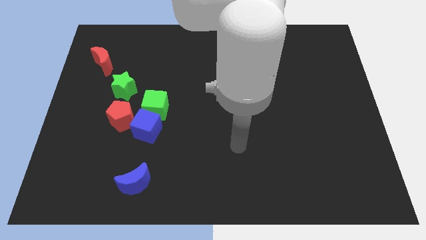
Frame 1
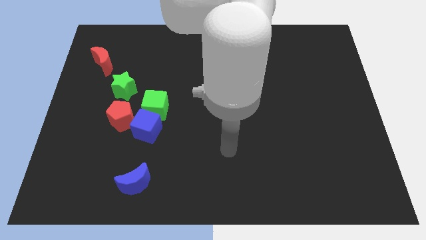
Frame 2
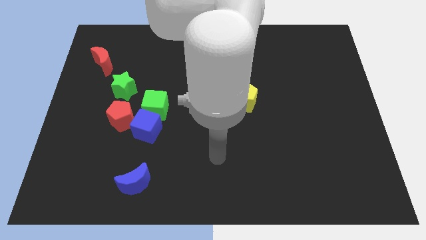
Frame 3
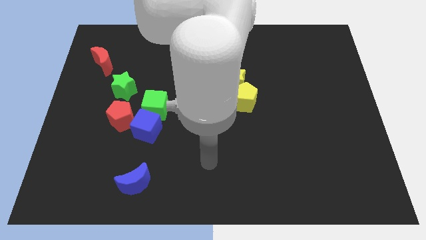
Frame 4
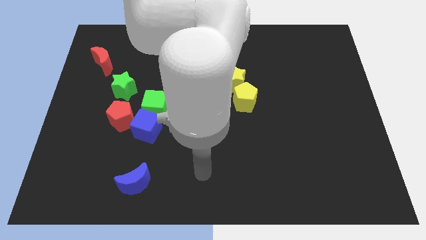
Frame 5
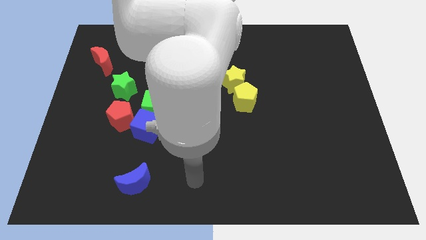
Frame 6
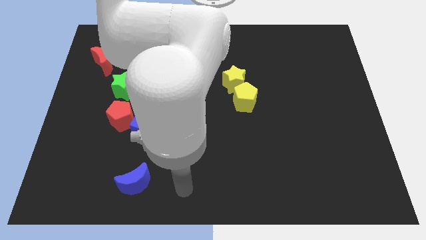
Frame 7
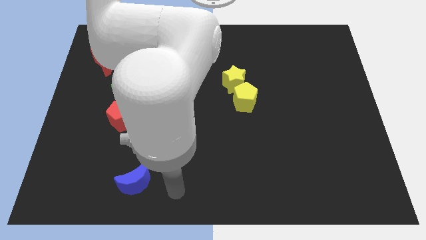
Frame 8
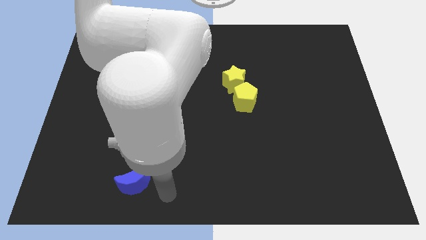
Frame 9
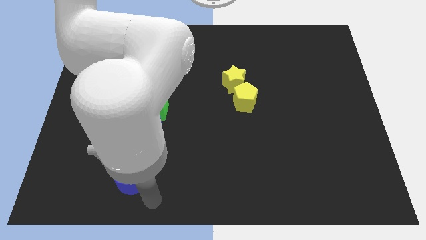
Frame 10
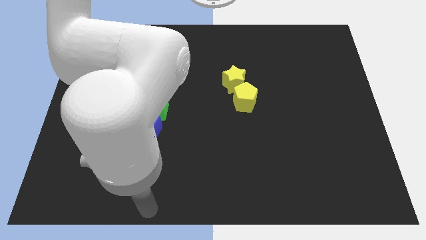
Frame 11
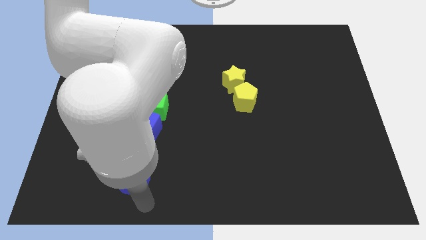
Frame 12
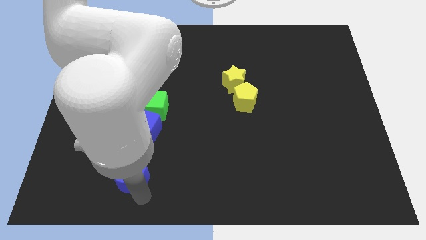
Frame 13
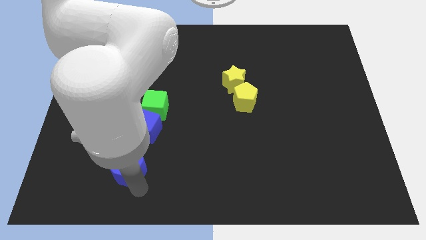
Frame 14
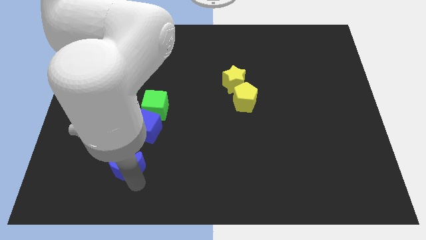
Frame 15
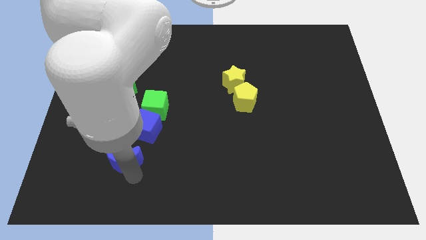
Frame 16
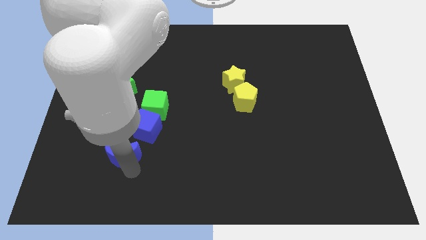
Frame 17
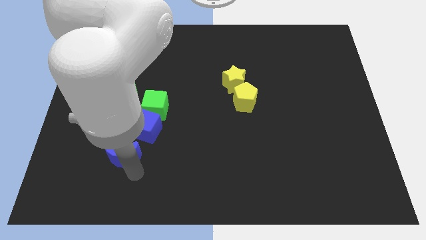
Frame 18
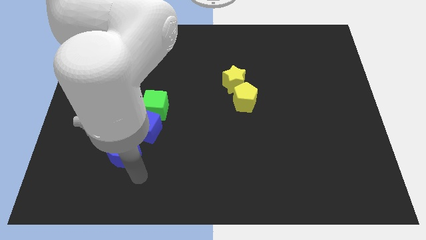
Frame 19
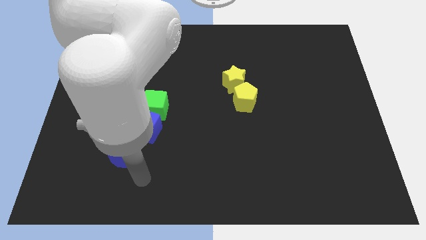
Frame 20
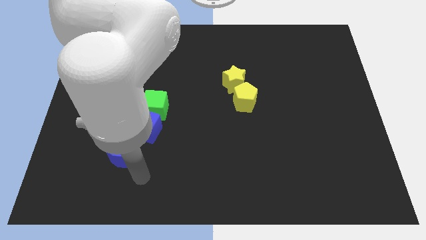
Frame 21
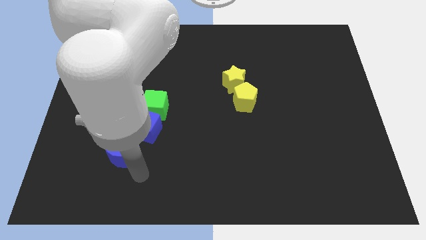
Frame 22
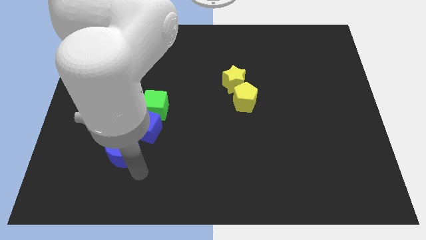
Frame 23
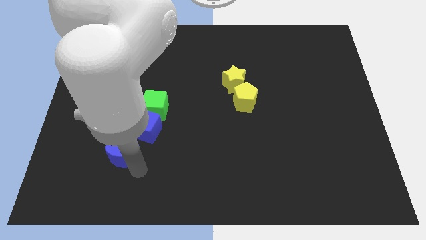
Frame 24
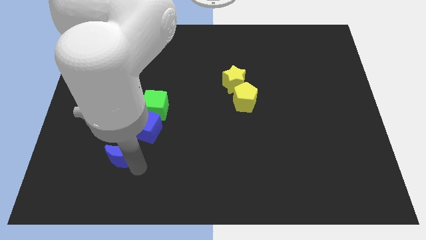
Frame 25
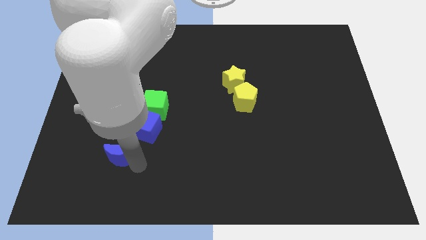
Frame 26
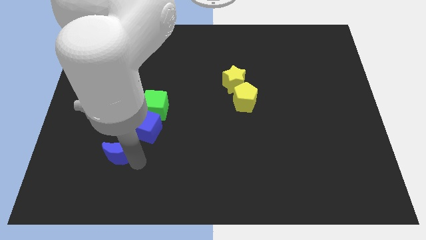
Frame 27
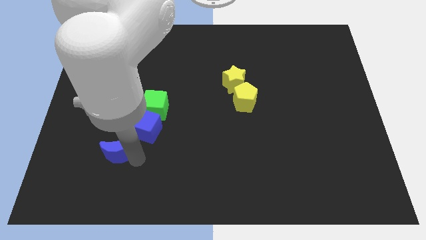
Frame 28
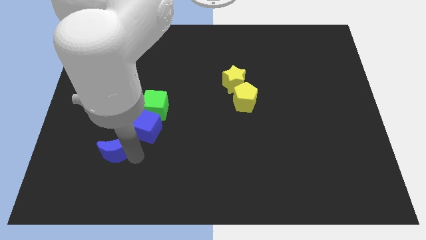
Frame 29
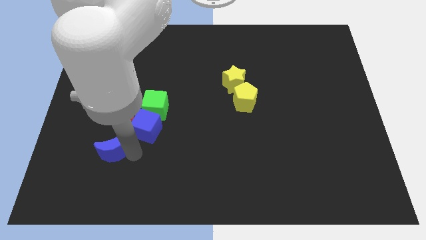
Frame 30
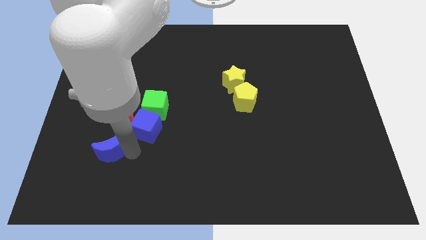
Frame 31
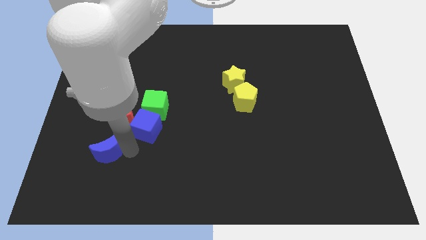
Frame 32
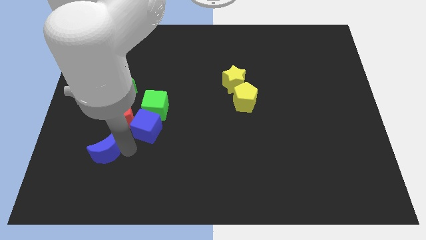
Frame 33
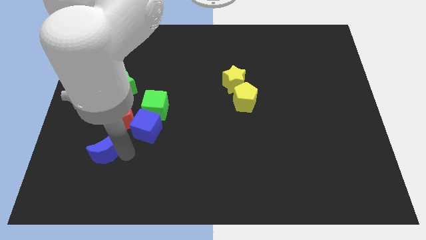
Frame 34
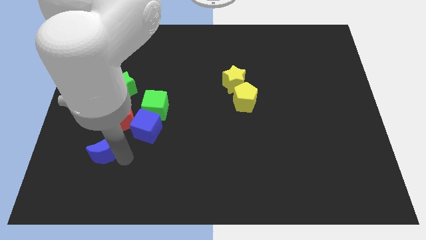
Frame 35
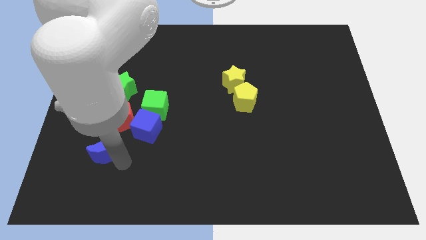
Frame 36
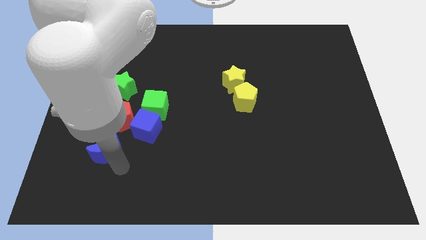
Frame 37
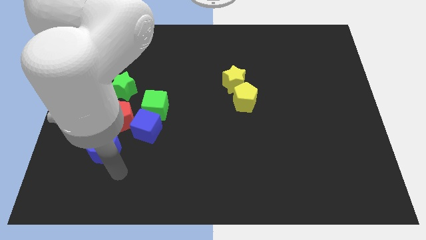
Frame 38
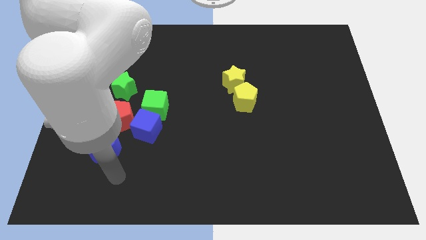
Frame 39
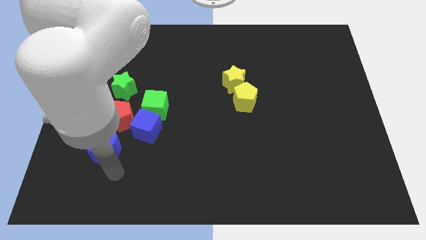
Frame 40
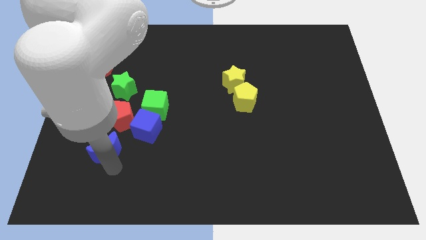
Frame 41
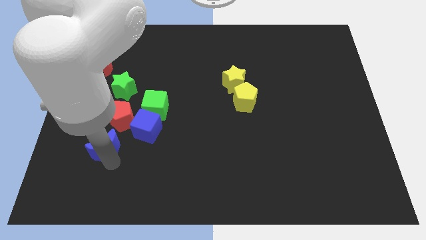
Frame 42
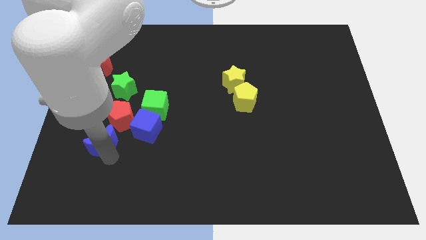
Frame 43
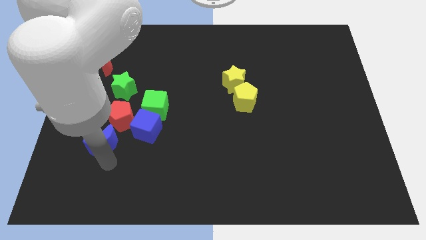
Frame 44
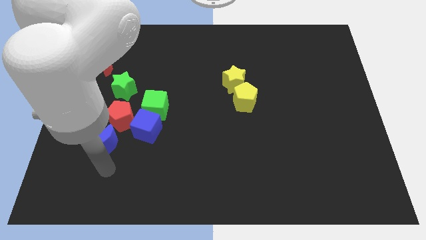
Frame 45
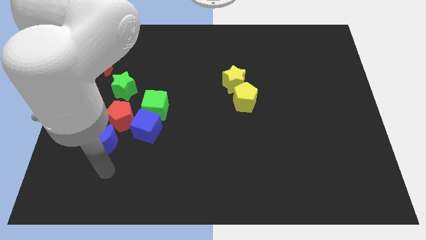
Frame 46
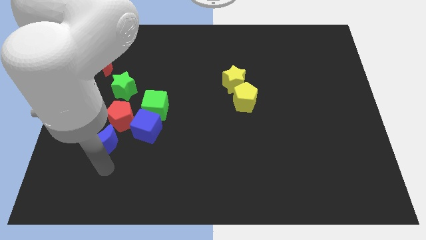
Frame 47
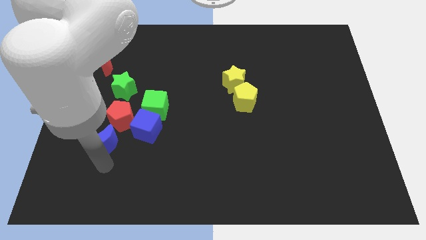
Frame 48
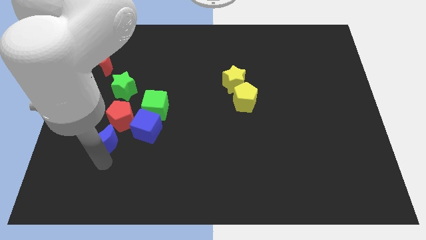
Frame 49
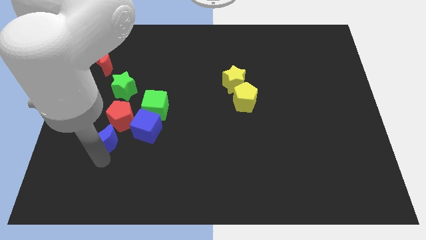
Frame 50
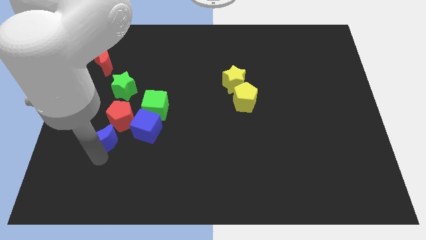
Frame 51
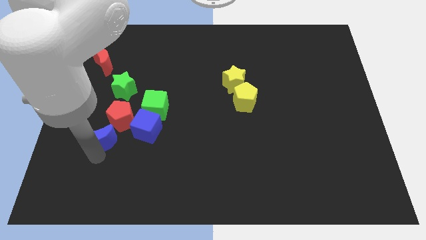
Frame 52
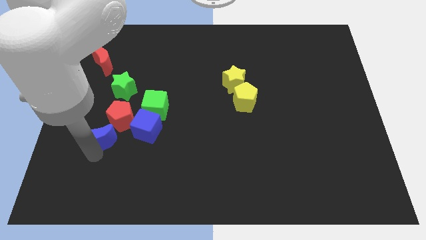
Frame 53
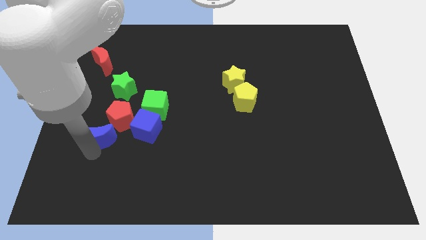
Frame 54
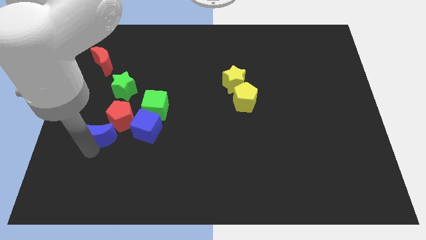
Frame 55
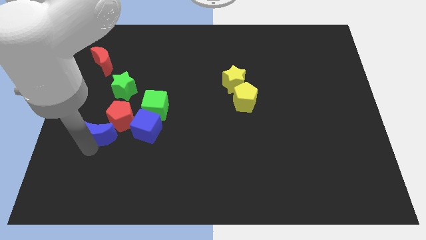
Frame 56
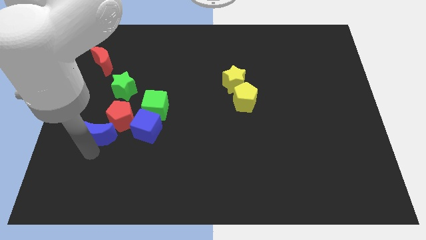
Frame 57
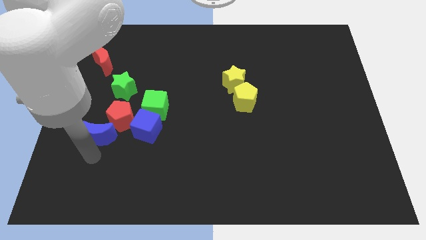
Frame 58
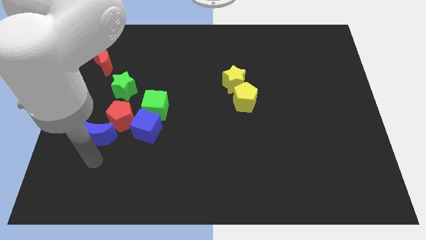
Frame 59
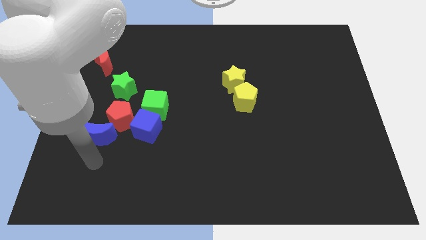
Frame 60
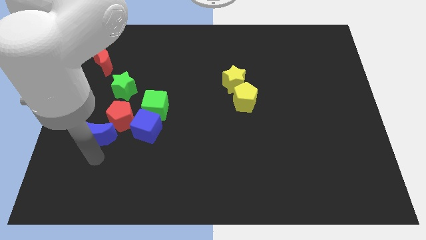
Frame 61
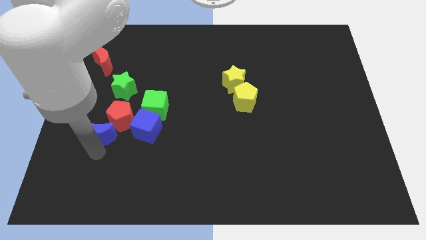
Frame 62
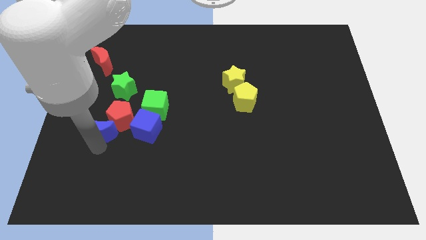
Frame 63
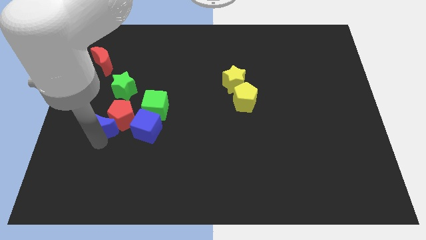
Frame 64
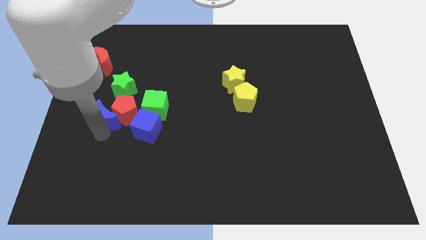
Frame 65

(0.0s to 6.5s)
slide the blue moon to the top left of the red pentagon

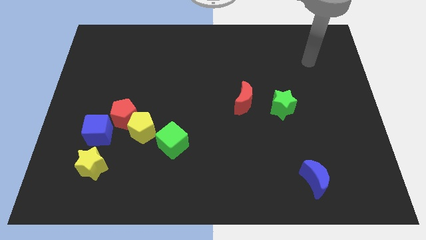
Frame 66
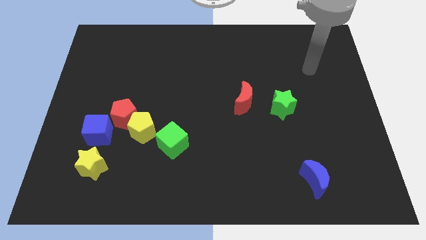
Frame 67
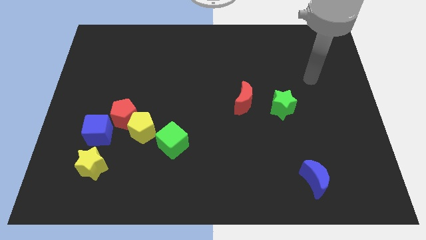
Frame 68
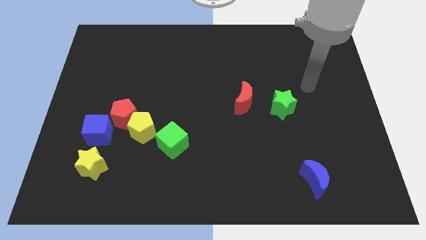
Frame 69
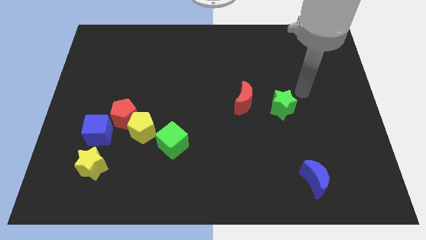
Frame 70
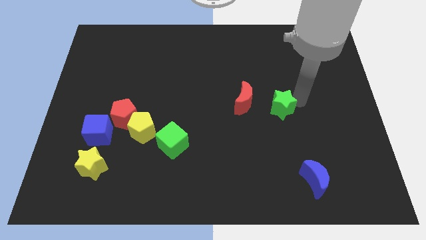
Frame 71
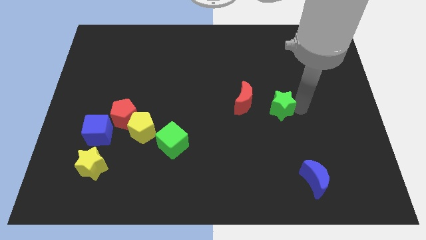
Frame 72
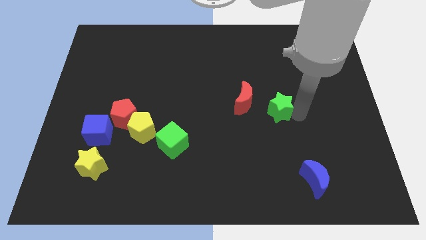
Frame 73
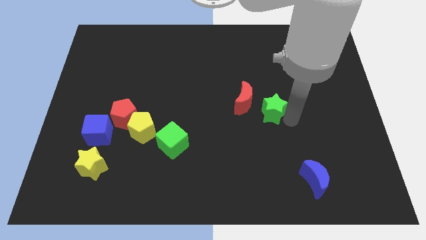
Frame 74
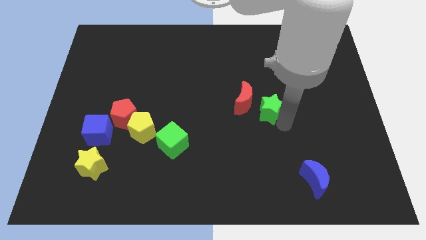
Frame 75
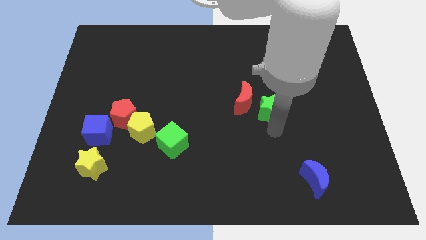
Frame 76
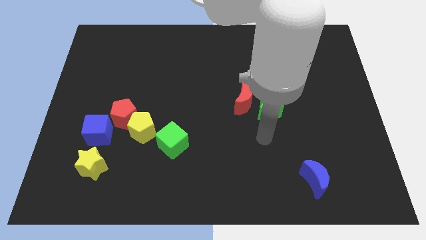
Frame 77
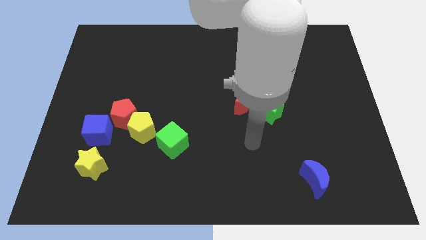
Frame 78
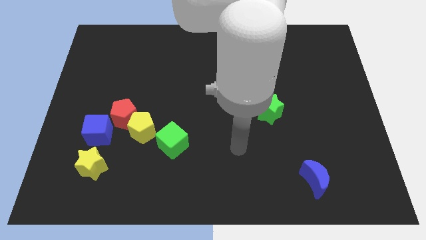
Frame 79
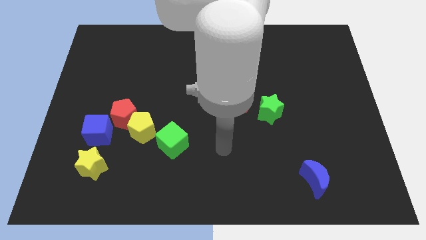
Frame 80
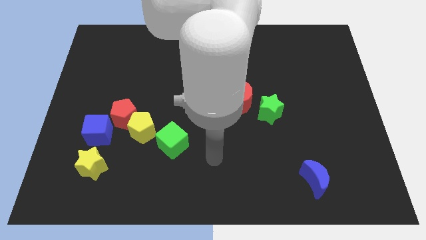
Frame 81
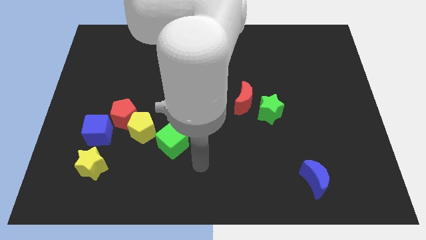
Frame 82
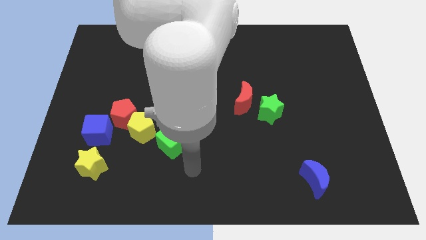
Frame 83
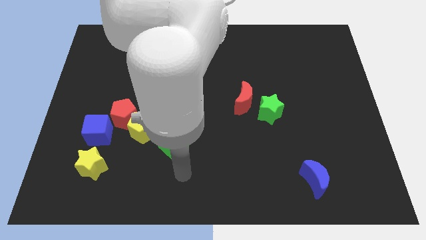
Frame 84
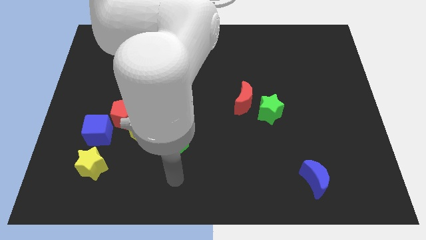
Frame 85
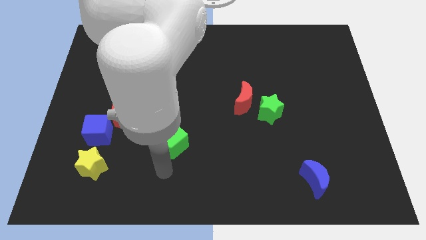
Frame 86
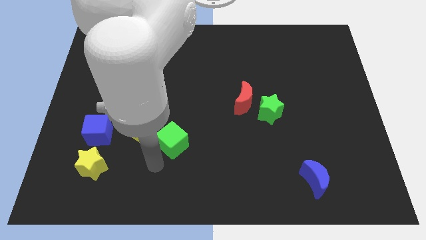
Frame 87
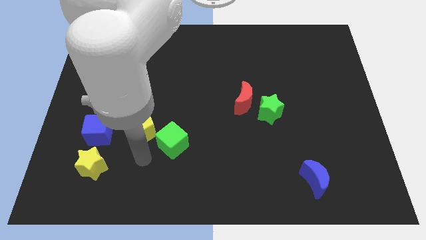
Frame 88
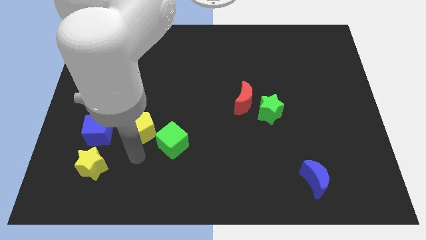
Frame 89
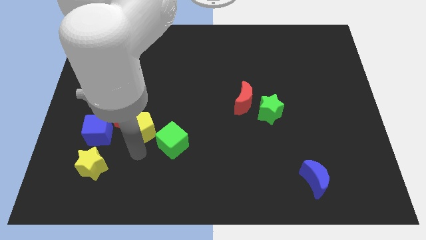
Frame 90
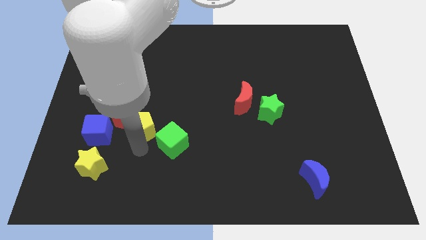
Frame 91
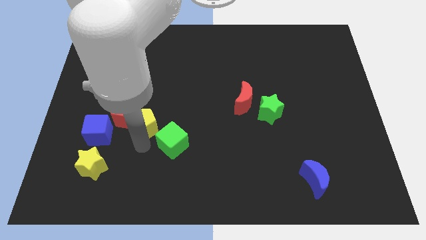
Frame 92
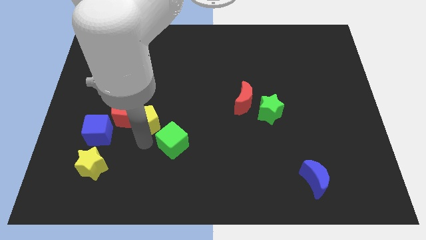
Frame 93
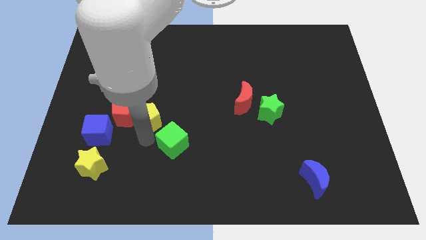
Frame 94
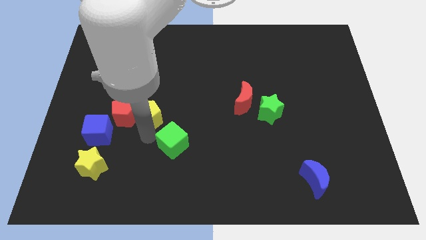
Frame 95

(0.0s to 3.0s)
slide the yellow pentagon to the top right side of the red pentagon
